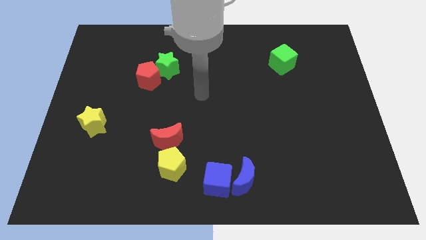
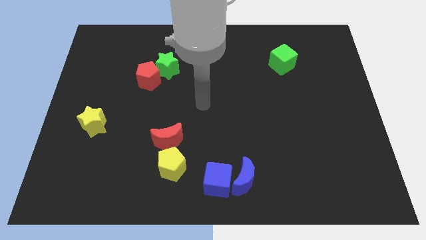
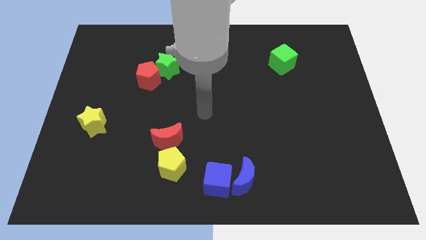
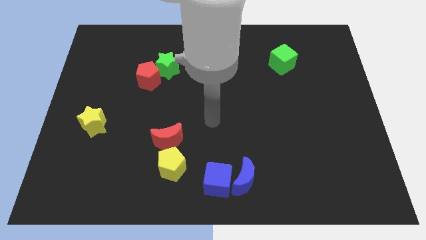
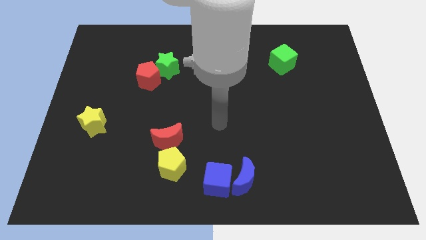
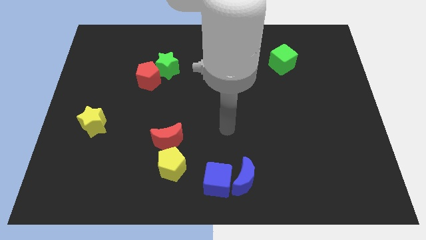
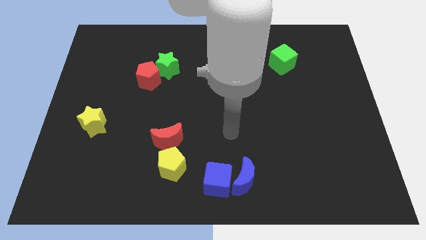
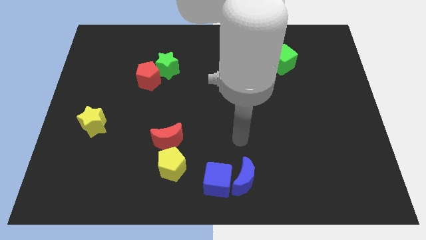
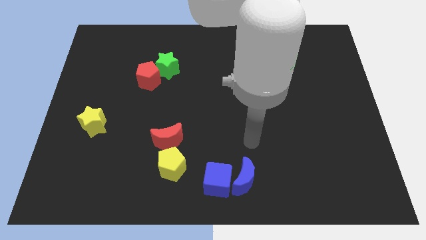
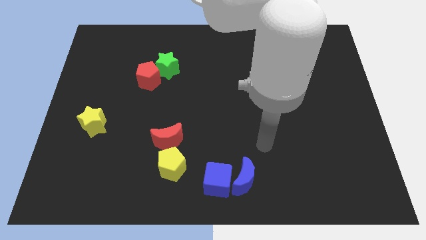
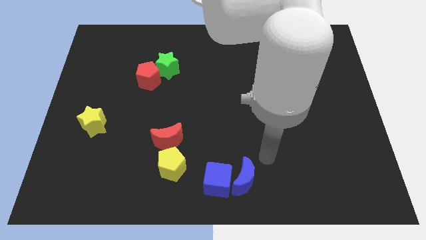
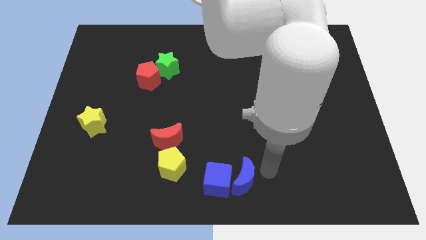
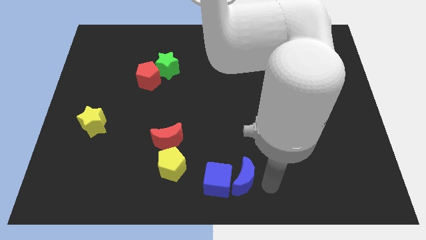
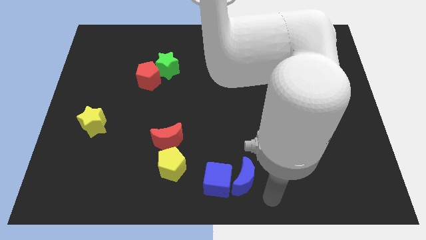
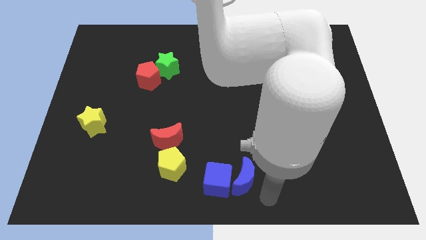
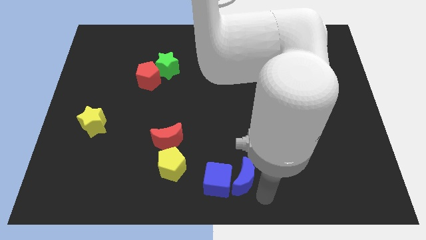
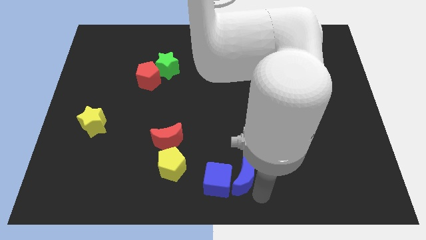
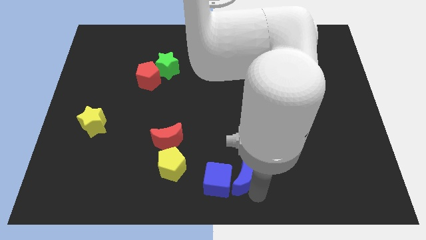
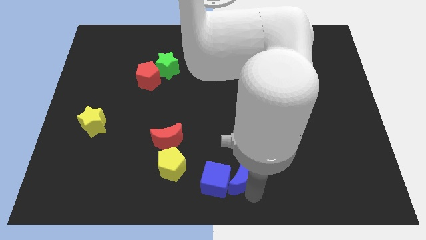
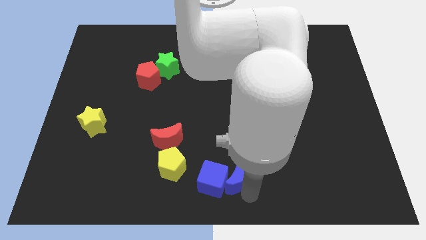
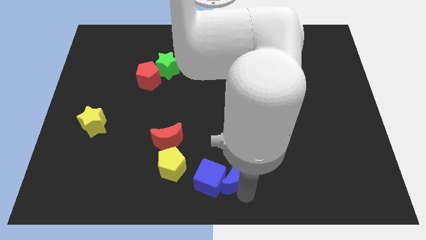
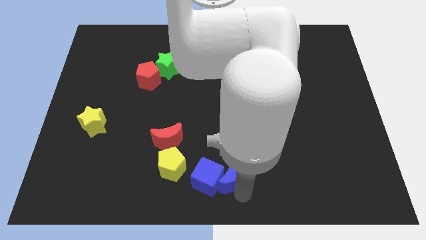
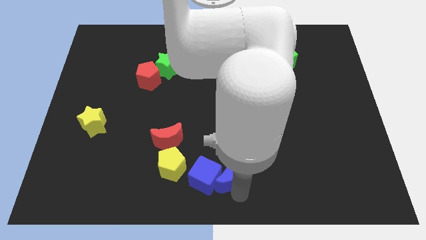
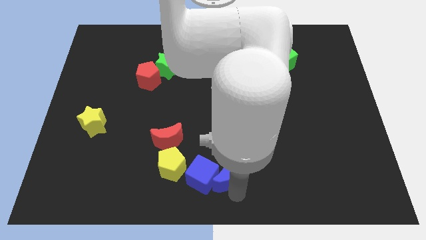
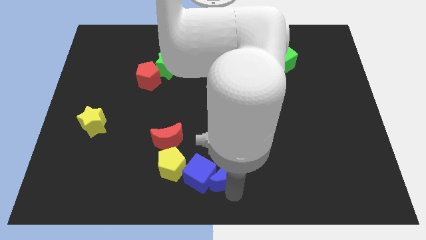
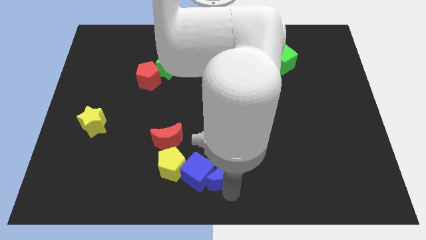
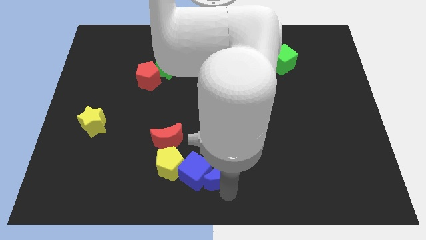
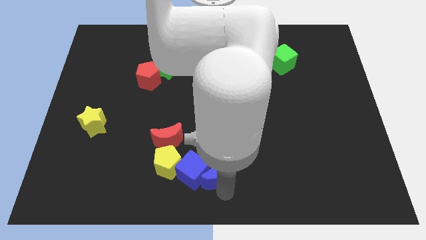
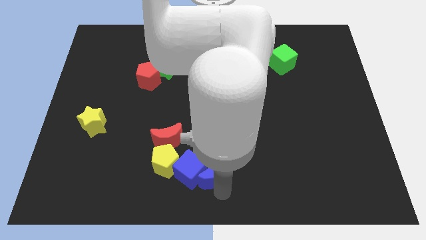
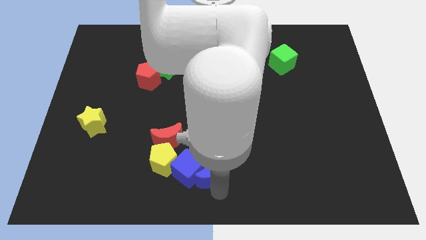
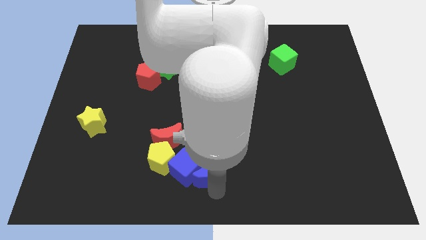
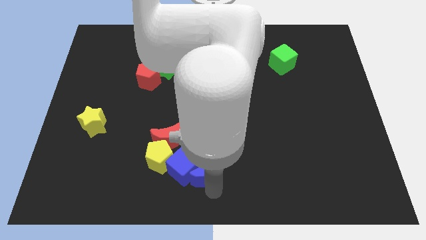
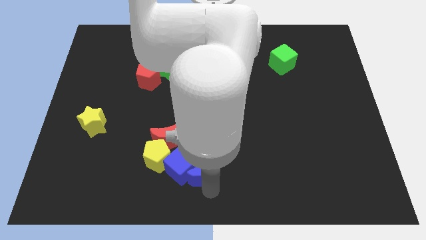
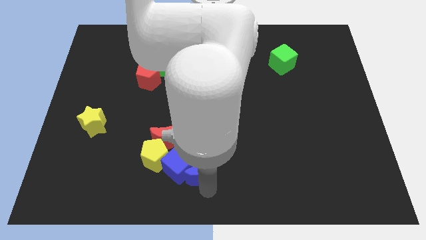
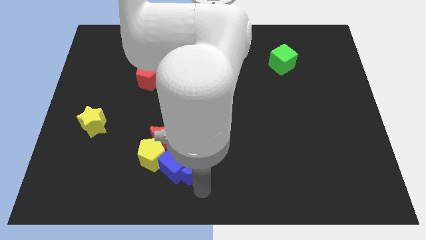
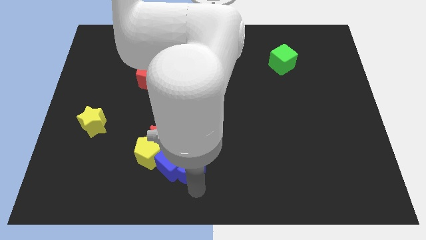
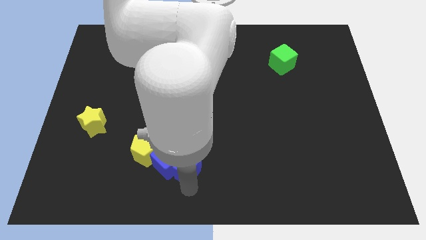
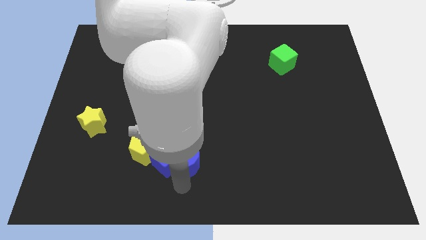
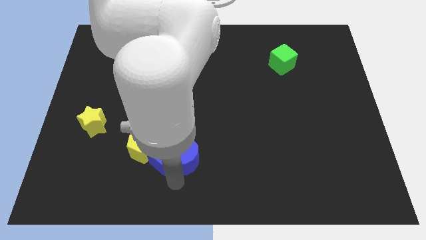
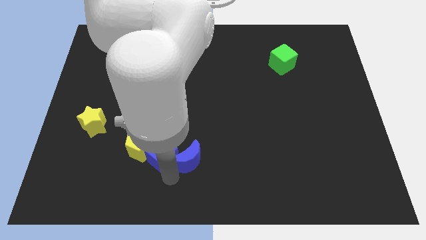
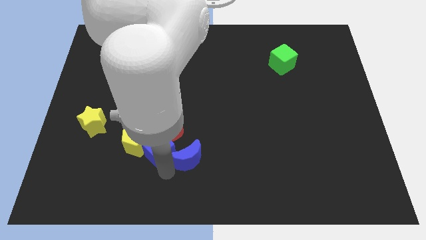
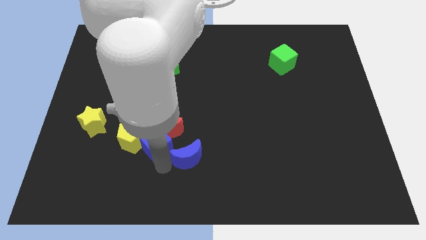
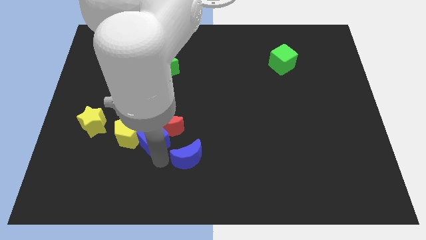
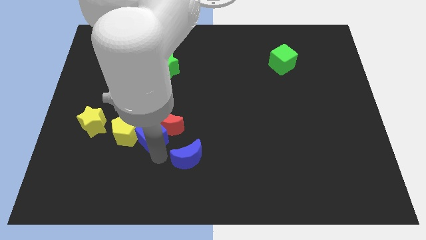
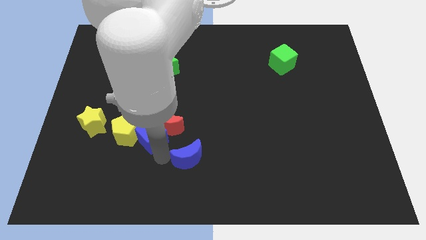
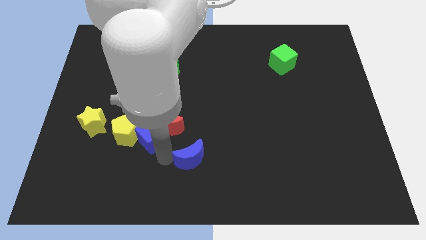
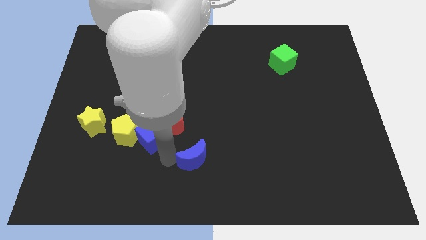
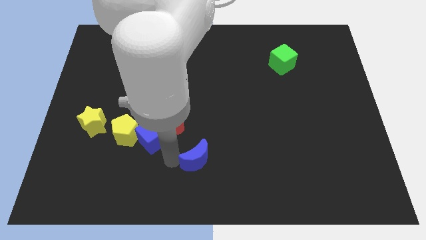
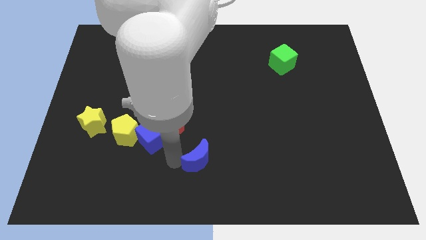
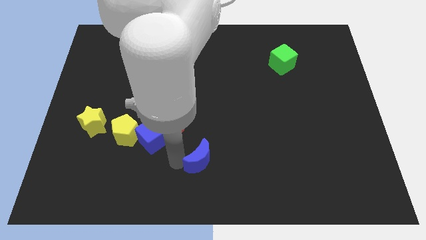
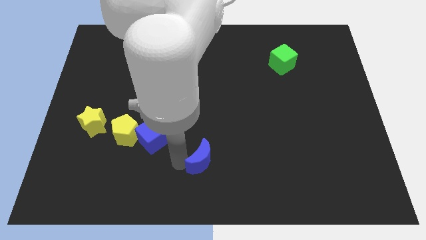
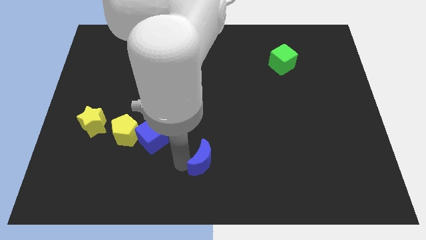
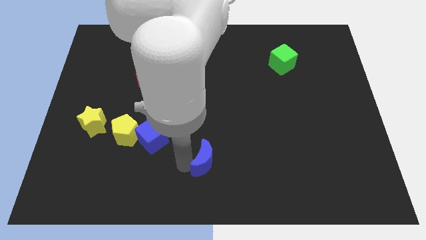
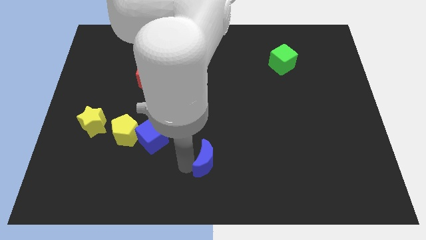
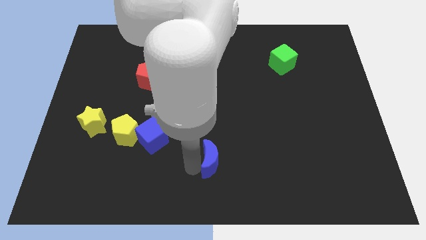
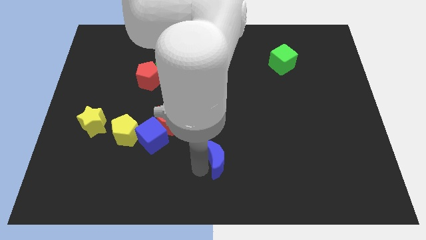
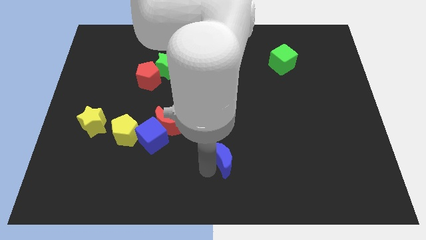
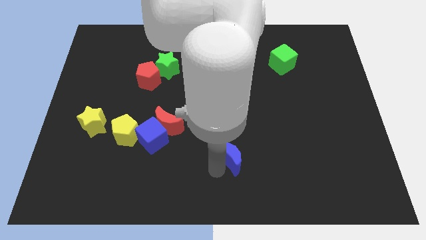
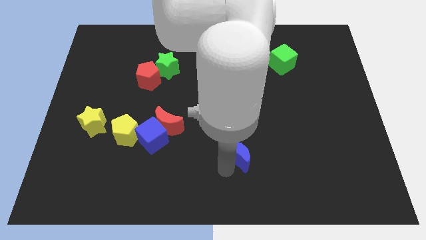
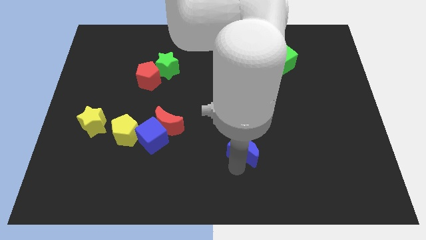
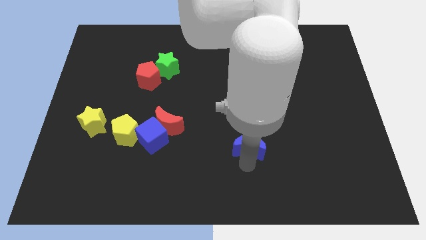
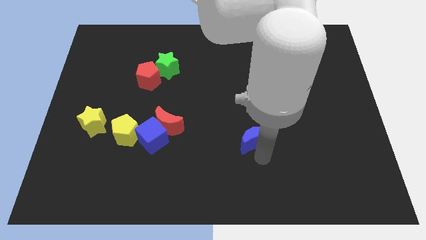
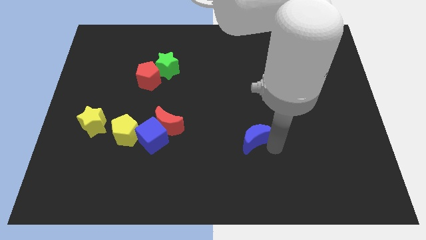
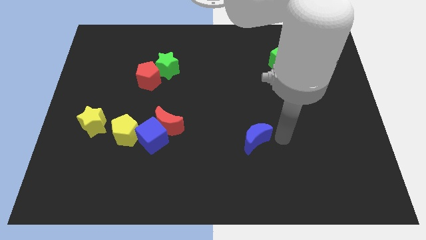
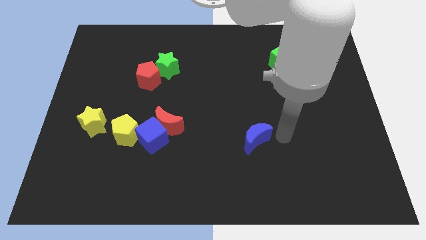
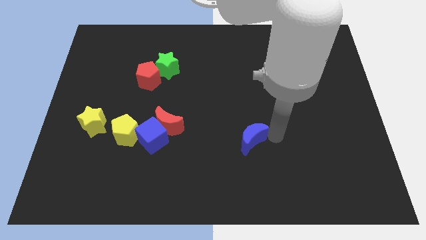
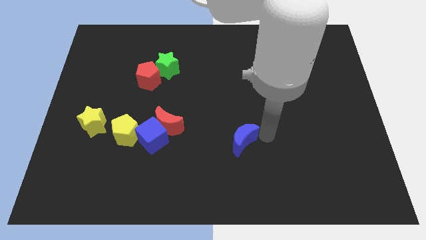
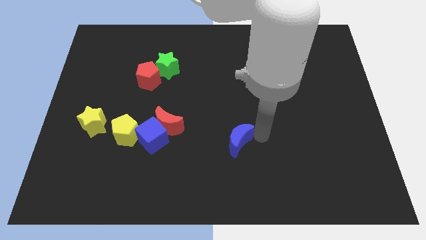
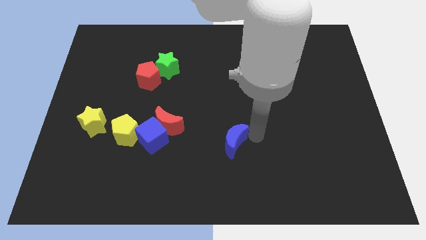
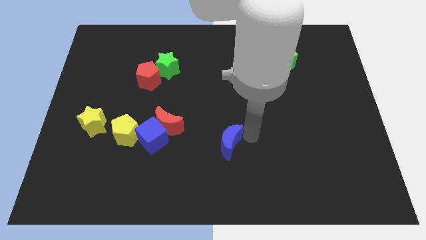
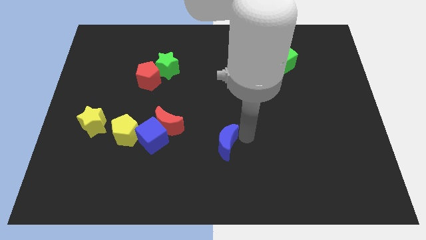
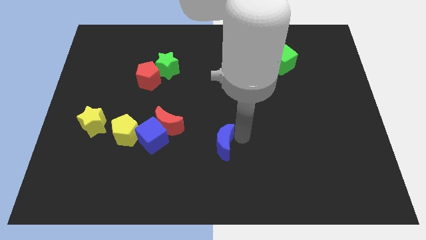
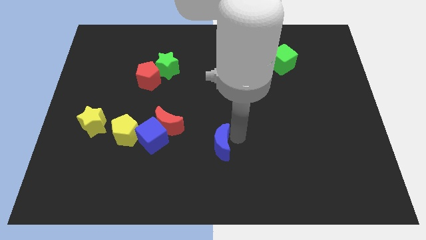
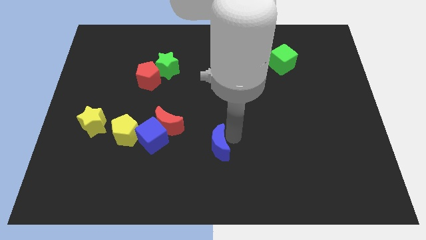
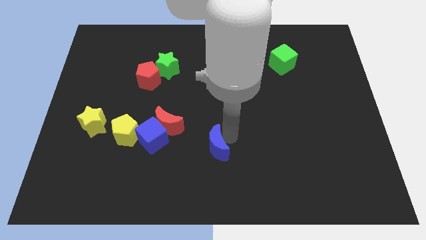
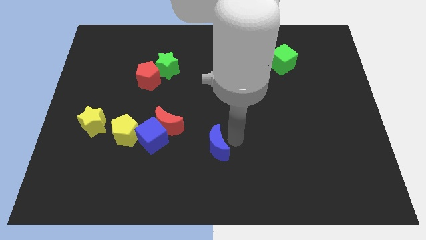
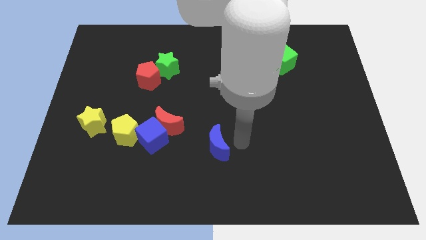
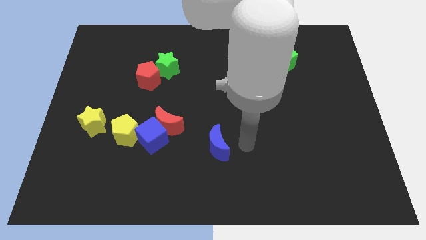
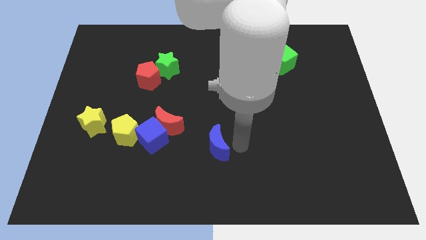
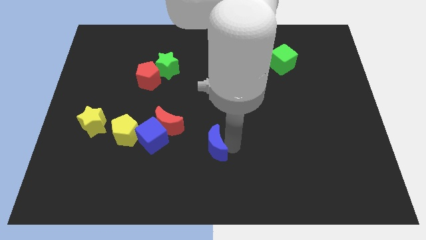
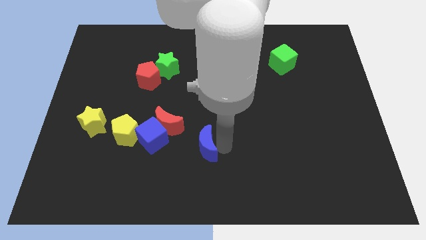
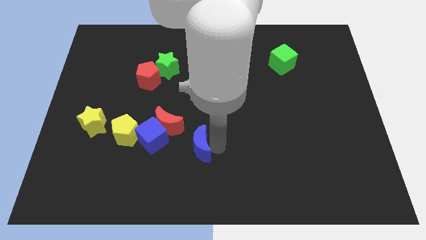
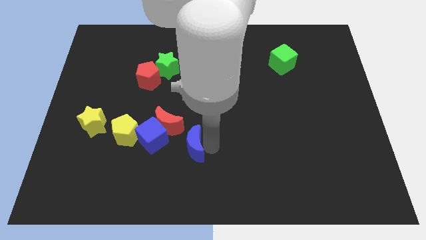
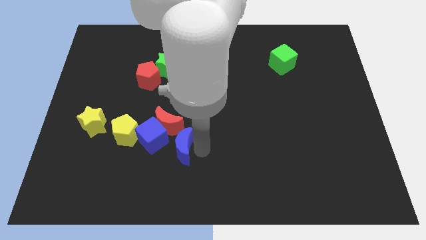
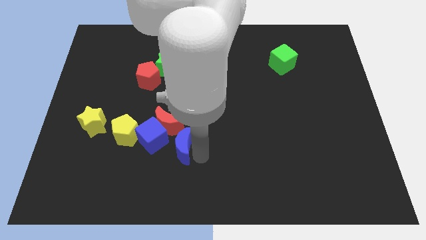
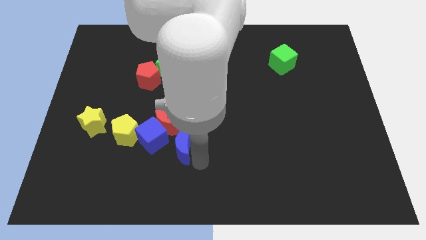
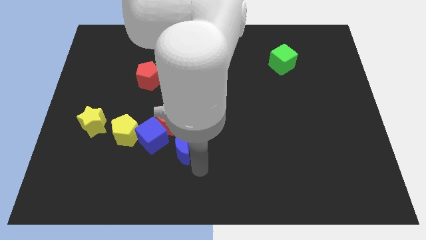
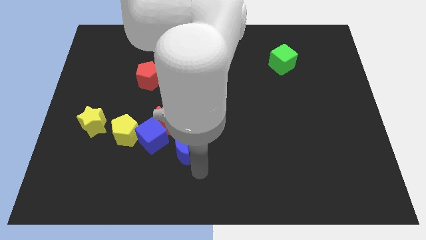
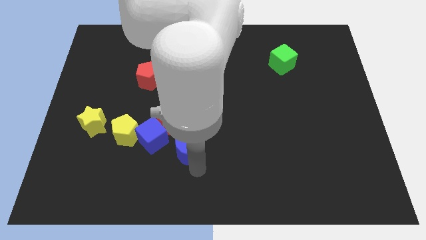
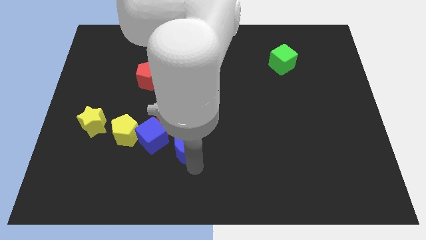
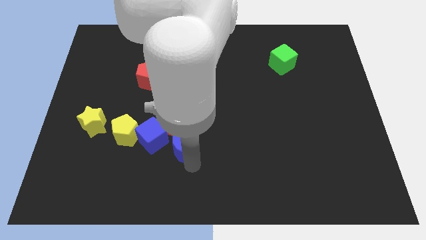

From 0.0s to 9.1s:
push the blue moon to the red moon
